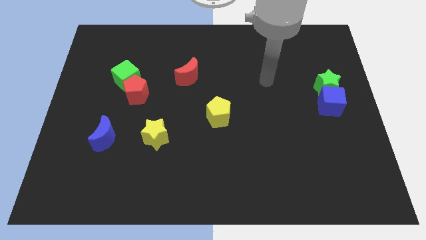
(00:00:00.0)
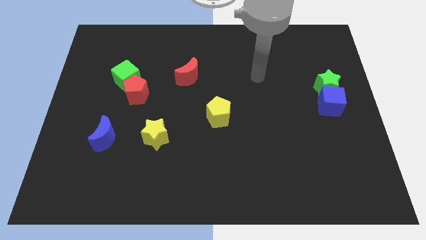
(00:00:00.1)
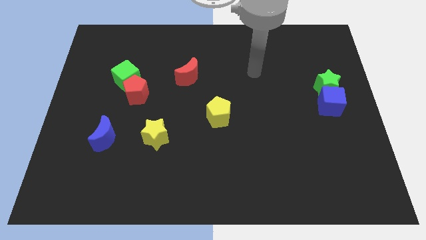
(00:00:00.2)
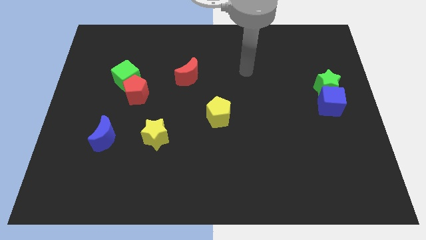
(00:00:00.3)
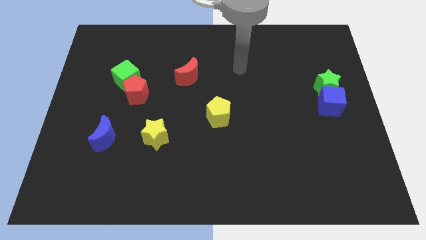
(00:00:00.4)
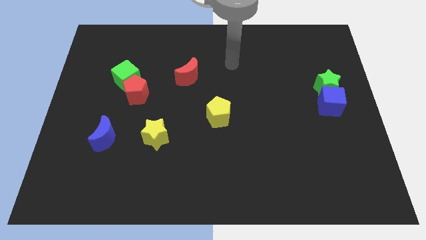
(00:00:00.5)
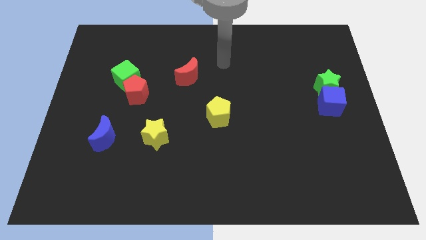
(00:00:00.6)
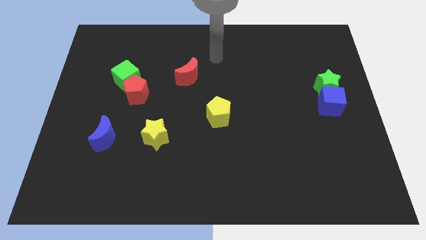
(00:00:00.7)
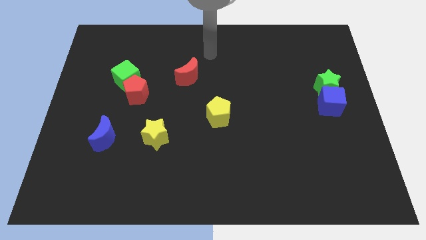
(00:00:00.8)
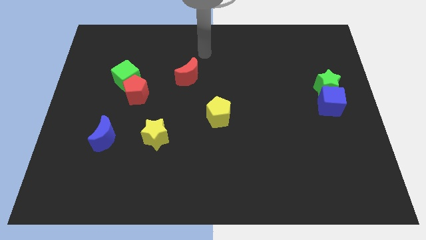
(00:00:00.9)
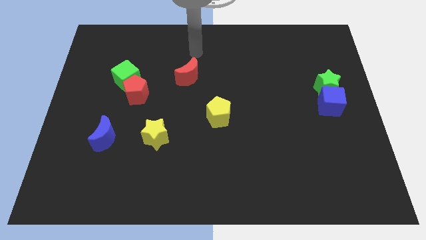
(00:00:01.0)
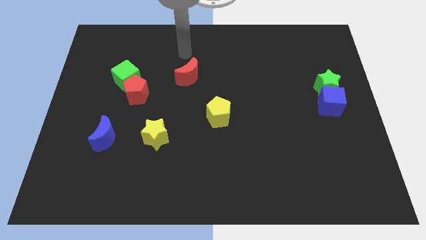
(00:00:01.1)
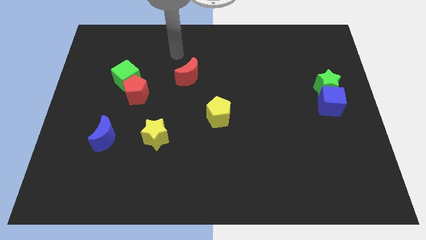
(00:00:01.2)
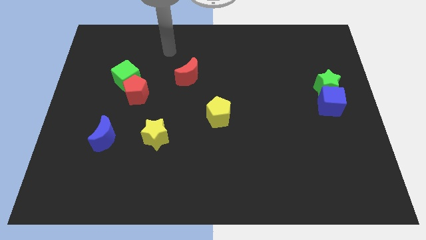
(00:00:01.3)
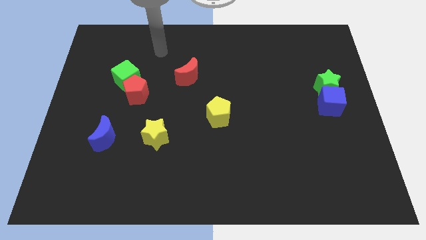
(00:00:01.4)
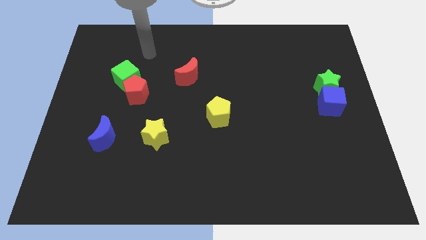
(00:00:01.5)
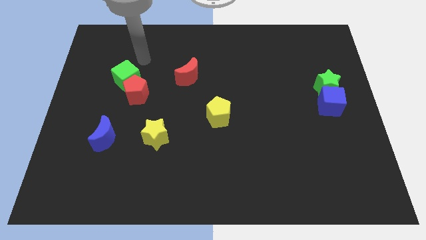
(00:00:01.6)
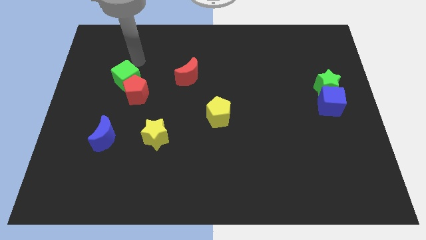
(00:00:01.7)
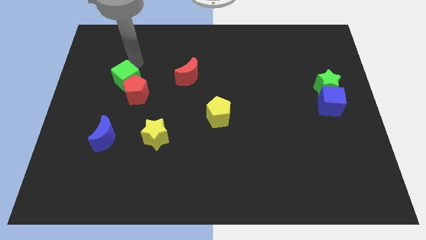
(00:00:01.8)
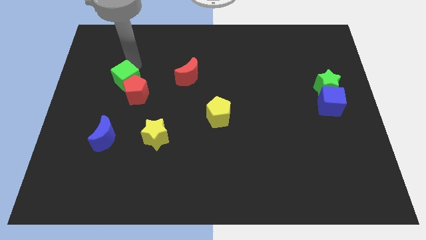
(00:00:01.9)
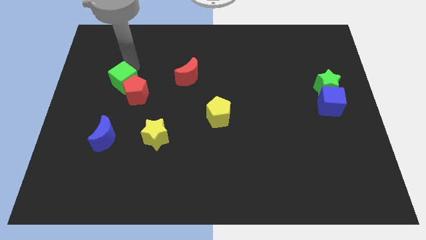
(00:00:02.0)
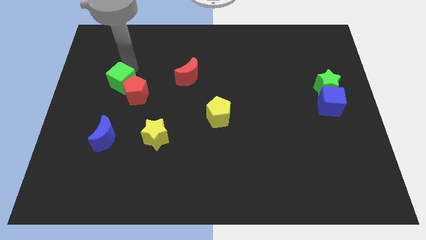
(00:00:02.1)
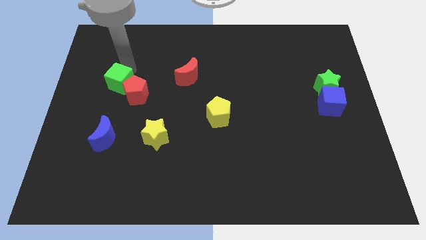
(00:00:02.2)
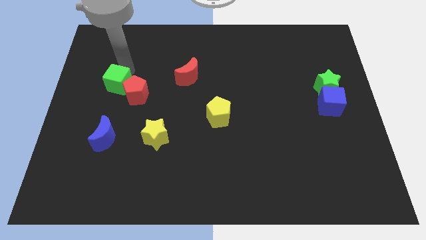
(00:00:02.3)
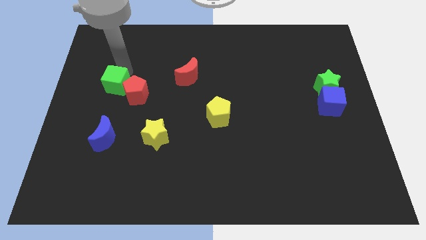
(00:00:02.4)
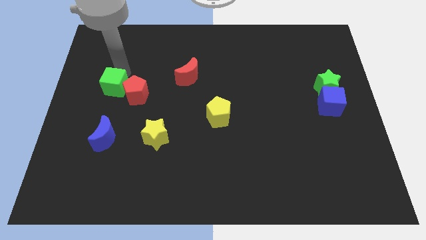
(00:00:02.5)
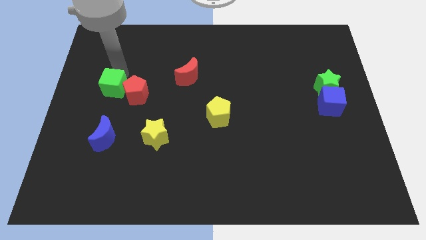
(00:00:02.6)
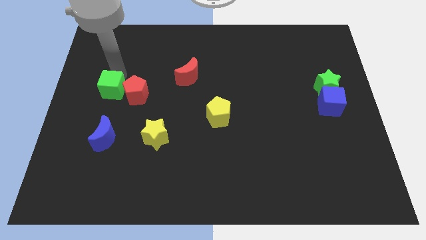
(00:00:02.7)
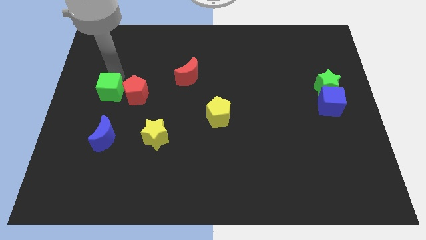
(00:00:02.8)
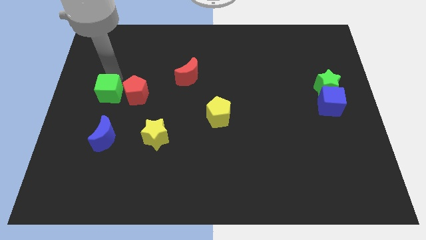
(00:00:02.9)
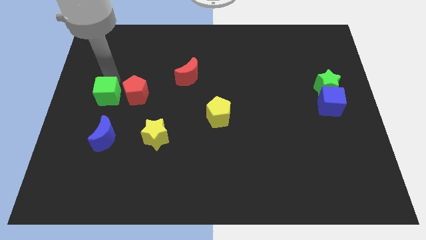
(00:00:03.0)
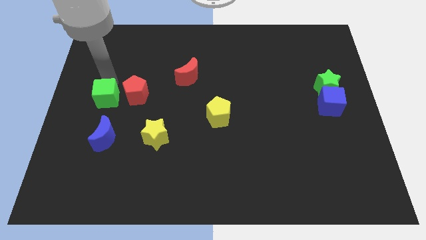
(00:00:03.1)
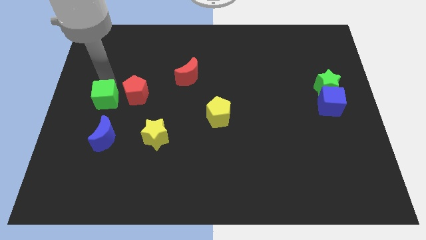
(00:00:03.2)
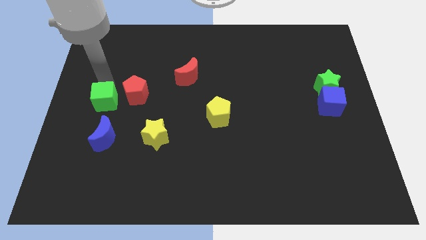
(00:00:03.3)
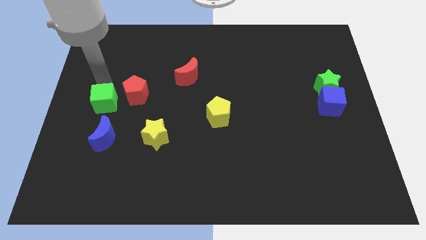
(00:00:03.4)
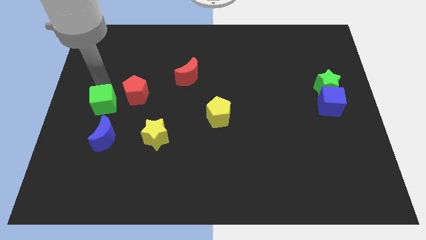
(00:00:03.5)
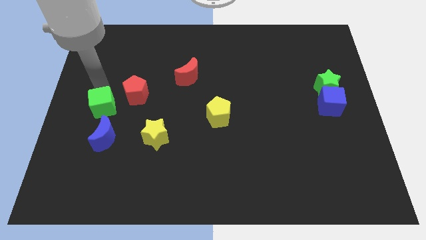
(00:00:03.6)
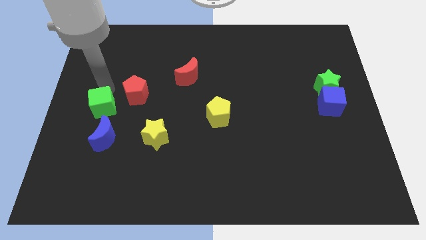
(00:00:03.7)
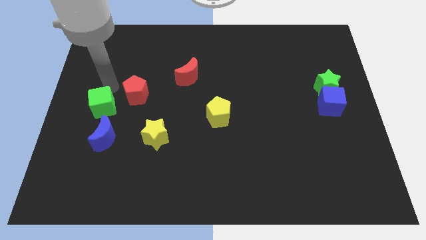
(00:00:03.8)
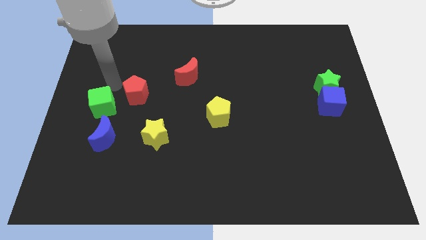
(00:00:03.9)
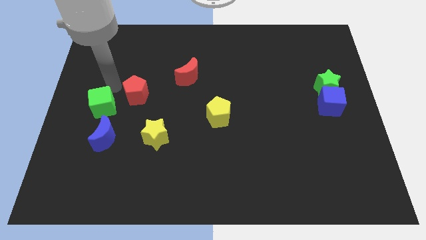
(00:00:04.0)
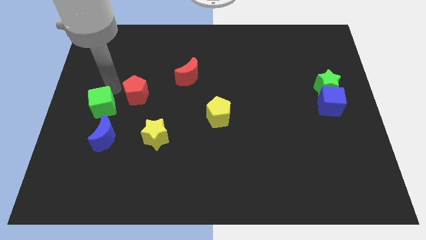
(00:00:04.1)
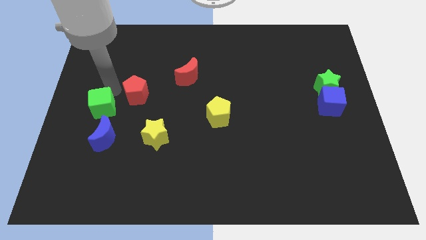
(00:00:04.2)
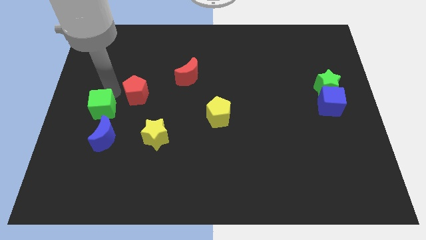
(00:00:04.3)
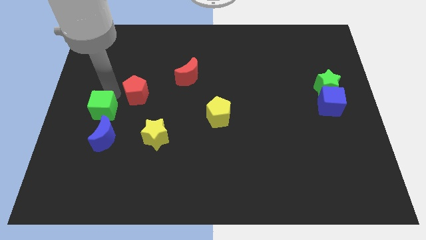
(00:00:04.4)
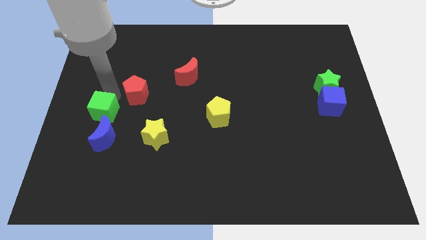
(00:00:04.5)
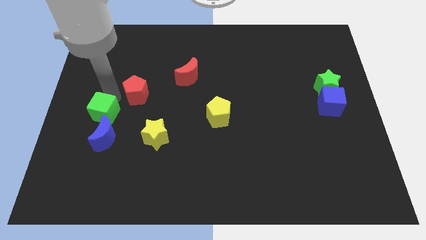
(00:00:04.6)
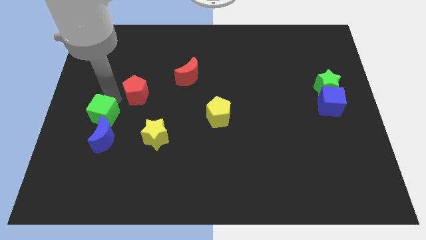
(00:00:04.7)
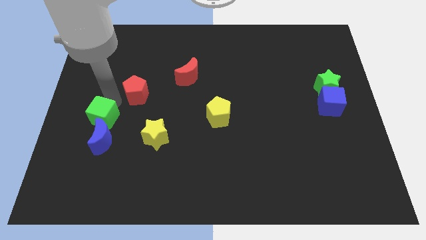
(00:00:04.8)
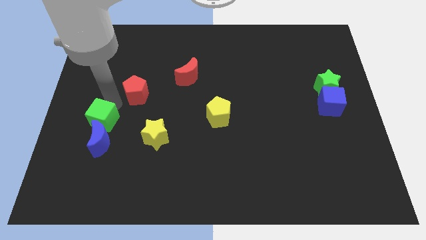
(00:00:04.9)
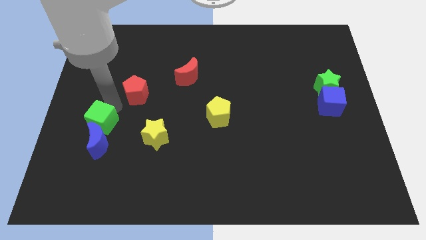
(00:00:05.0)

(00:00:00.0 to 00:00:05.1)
move the green cube to the left of the yellow star

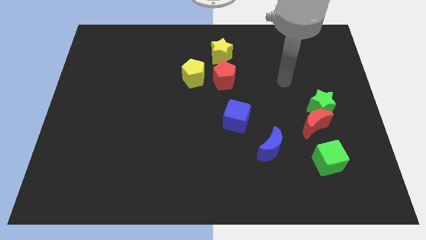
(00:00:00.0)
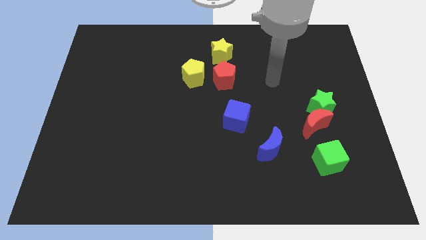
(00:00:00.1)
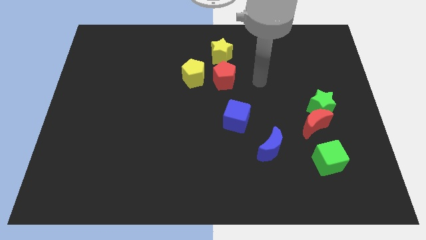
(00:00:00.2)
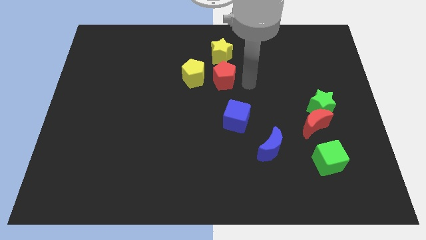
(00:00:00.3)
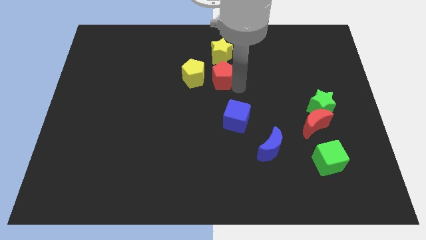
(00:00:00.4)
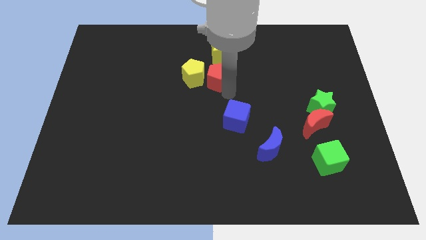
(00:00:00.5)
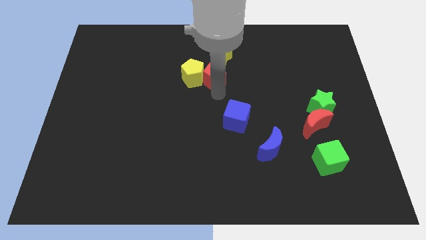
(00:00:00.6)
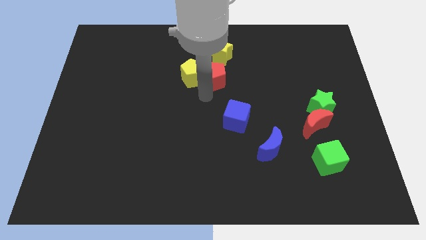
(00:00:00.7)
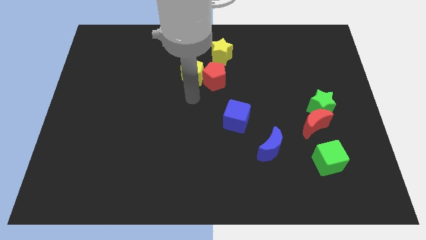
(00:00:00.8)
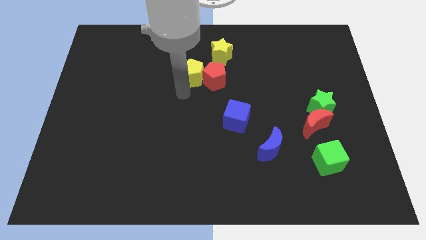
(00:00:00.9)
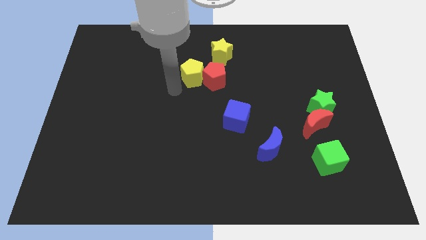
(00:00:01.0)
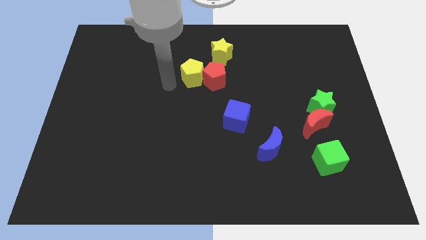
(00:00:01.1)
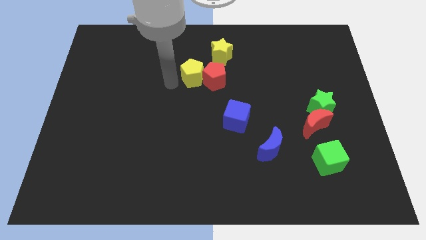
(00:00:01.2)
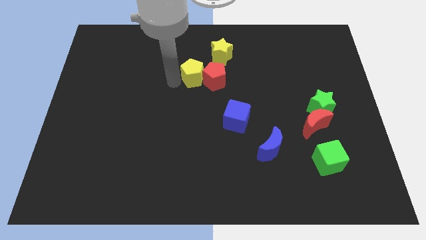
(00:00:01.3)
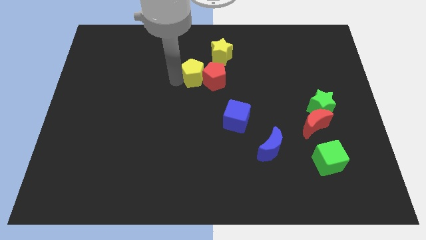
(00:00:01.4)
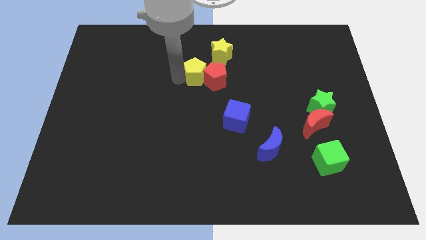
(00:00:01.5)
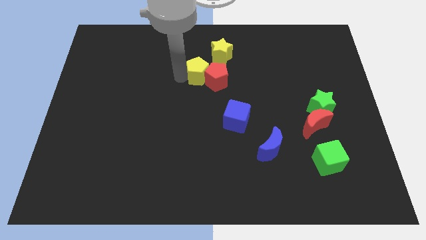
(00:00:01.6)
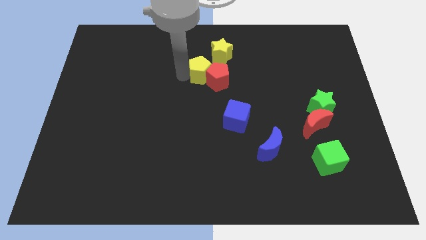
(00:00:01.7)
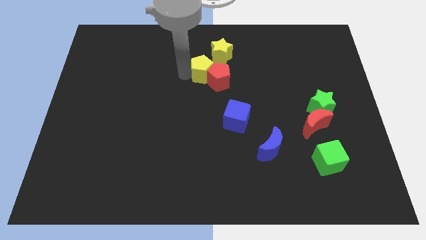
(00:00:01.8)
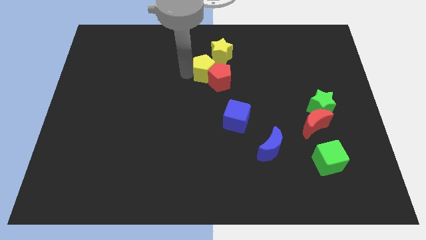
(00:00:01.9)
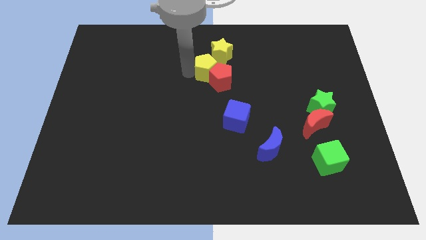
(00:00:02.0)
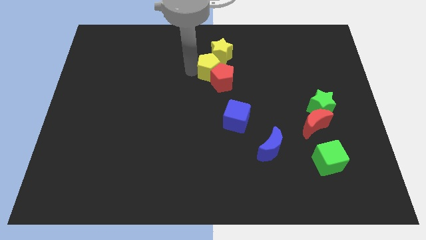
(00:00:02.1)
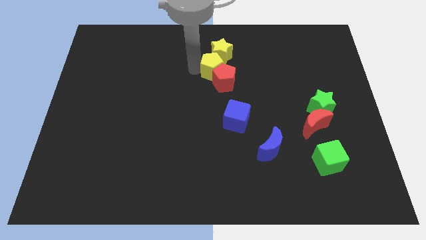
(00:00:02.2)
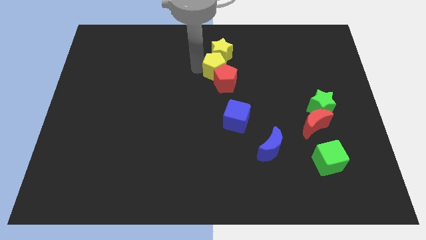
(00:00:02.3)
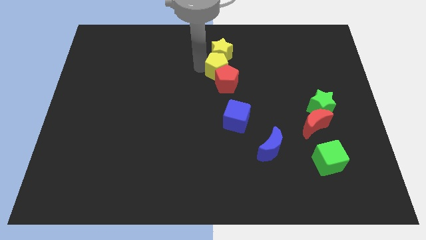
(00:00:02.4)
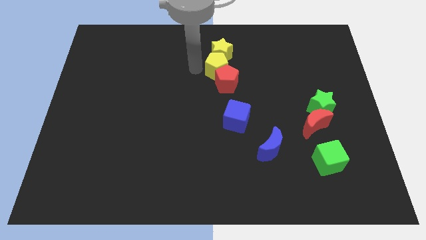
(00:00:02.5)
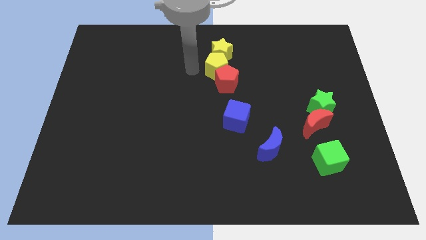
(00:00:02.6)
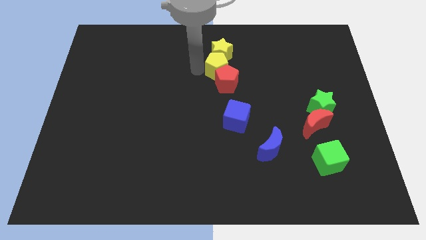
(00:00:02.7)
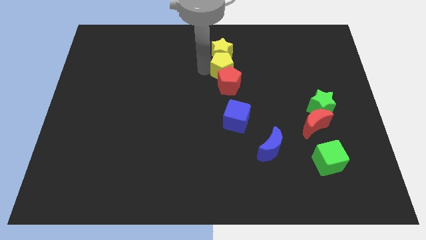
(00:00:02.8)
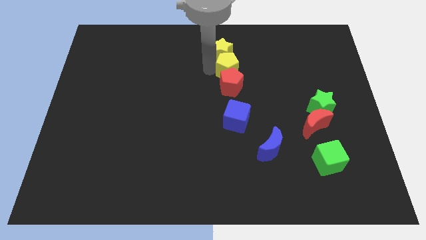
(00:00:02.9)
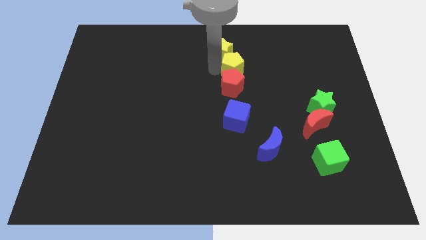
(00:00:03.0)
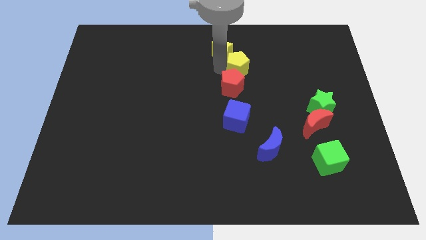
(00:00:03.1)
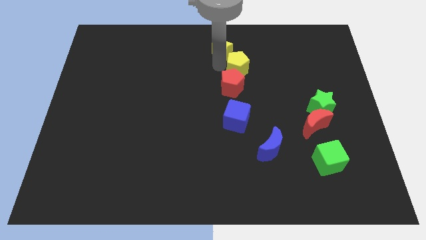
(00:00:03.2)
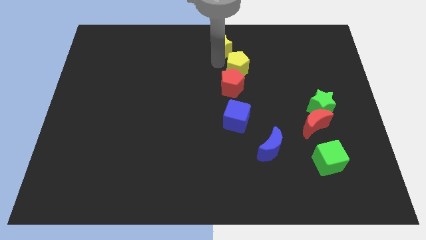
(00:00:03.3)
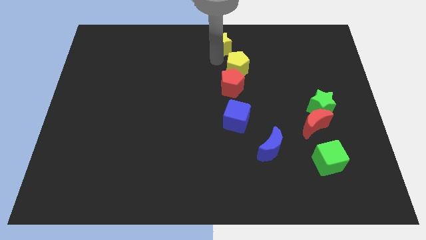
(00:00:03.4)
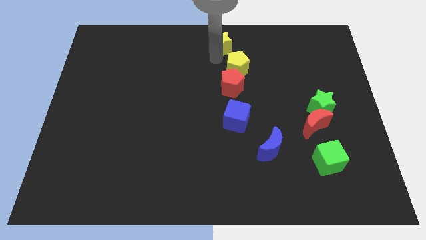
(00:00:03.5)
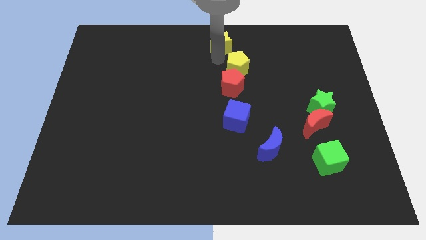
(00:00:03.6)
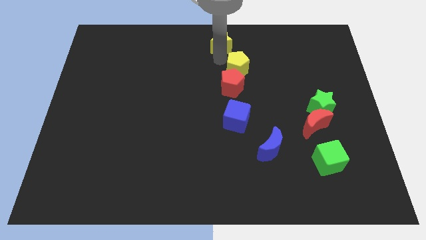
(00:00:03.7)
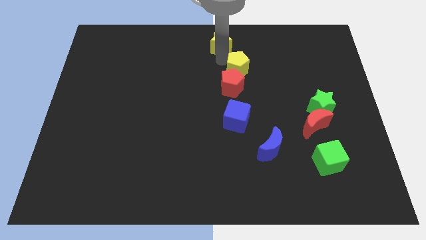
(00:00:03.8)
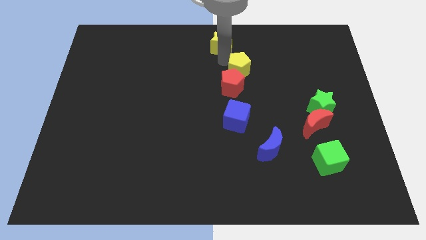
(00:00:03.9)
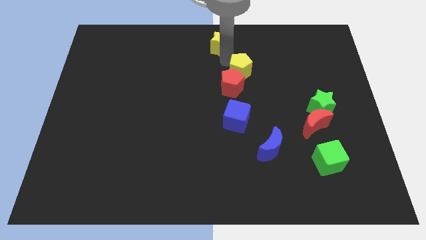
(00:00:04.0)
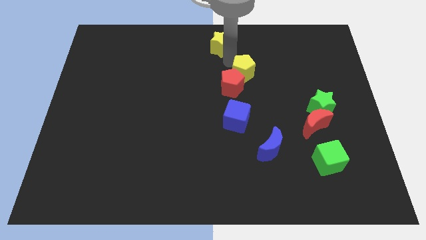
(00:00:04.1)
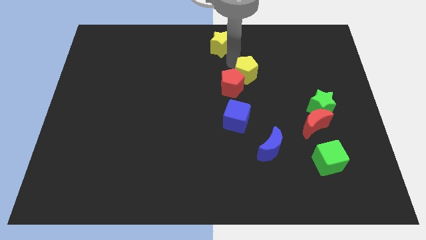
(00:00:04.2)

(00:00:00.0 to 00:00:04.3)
put the yellow pentagon to the right side of the red pentagon
